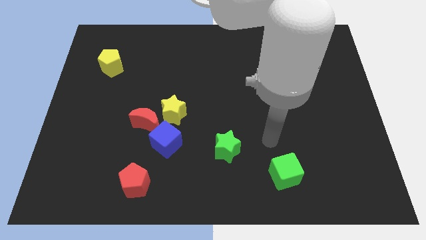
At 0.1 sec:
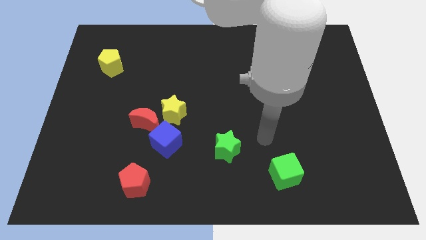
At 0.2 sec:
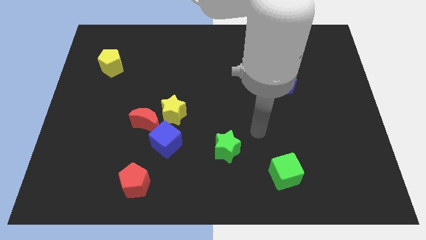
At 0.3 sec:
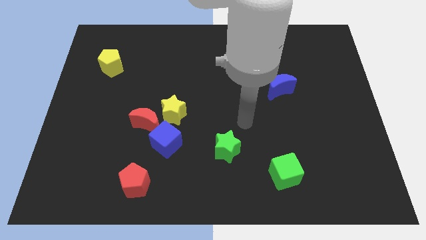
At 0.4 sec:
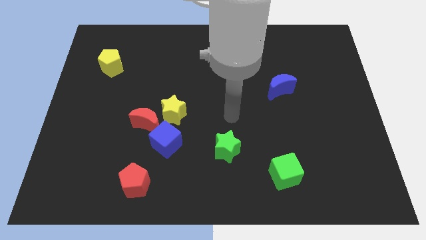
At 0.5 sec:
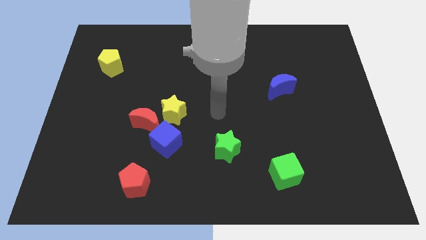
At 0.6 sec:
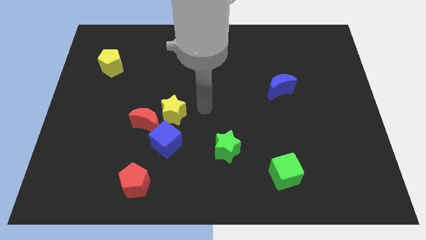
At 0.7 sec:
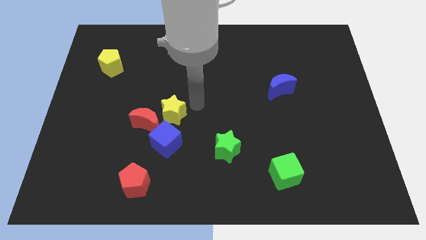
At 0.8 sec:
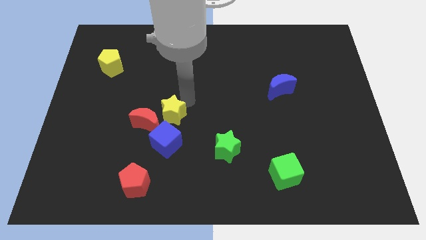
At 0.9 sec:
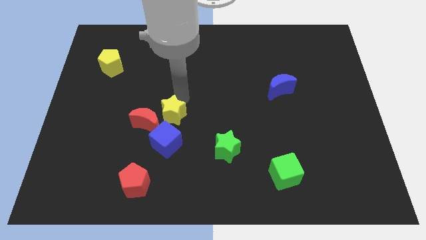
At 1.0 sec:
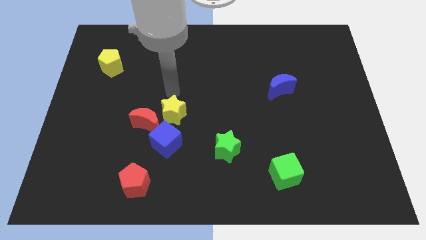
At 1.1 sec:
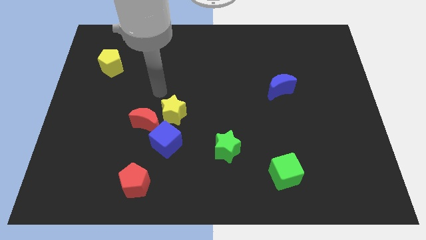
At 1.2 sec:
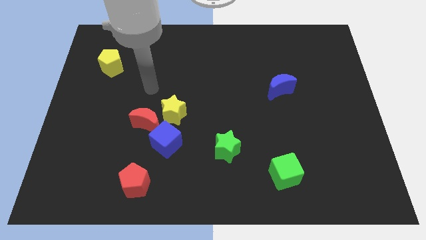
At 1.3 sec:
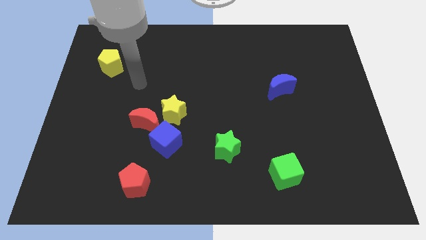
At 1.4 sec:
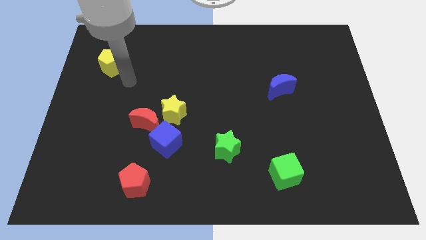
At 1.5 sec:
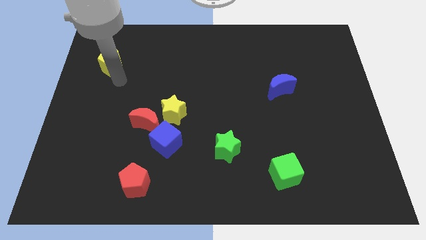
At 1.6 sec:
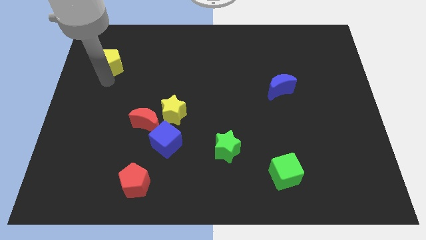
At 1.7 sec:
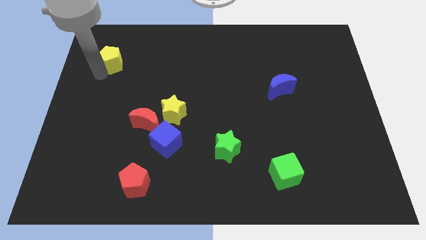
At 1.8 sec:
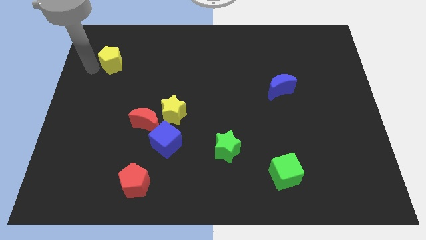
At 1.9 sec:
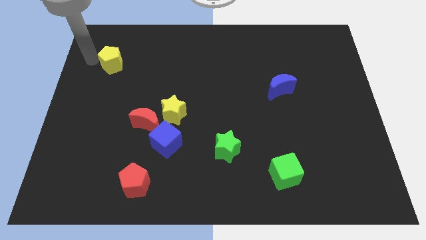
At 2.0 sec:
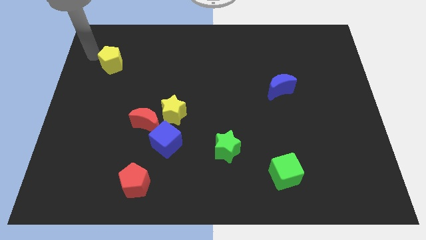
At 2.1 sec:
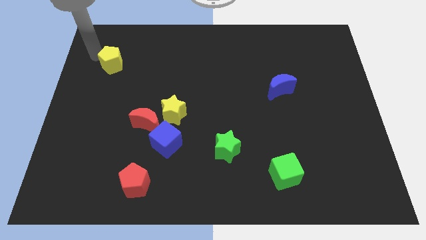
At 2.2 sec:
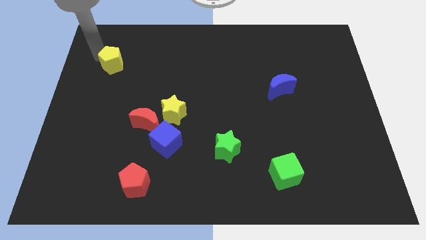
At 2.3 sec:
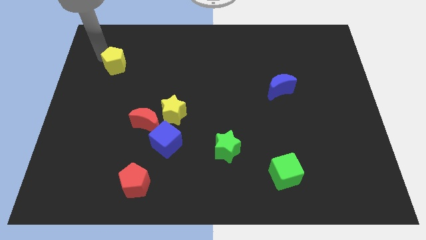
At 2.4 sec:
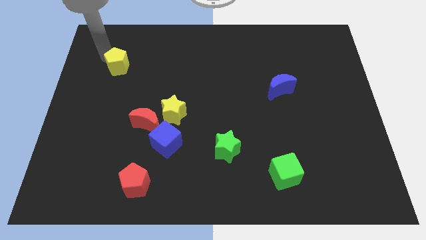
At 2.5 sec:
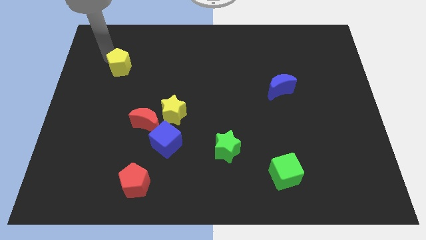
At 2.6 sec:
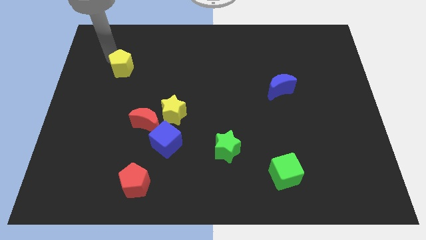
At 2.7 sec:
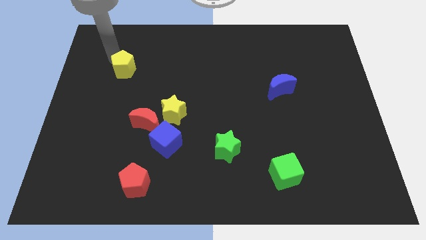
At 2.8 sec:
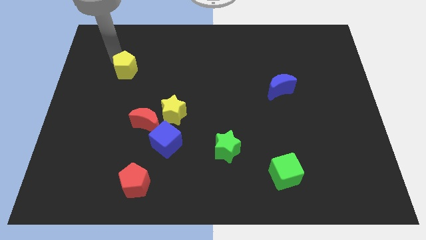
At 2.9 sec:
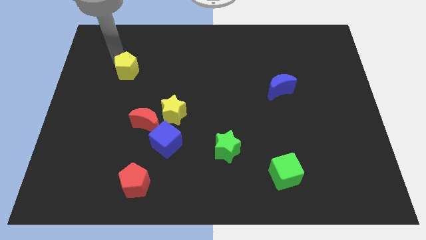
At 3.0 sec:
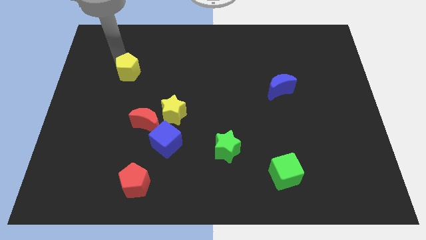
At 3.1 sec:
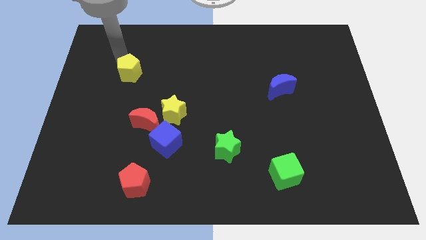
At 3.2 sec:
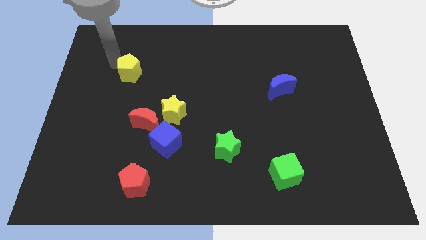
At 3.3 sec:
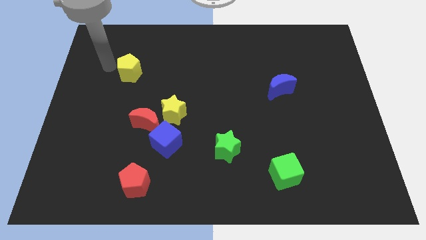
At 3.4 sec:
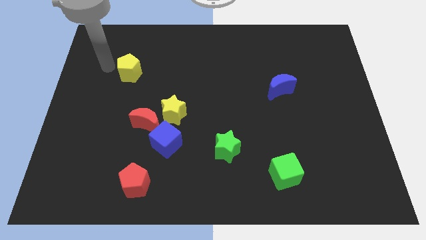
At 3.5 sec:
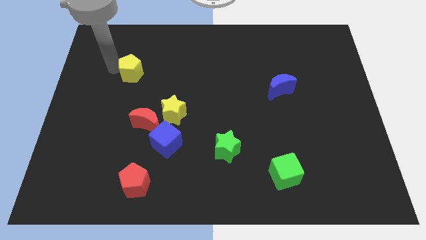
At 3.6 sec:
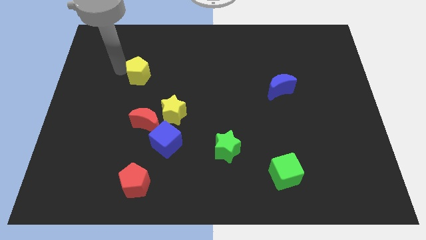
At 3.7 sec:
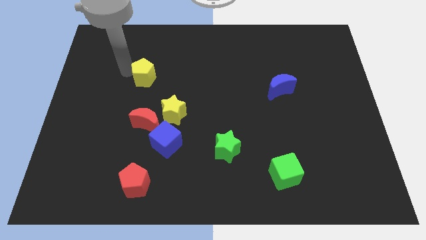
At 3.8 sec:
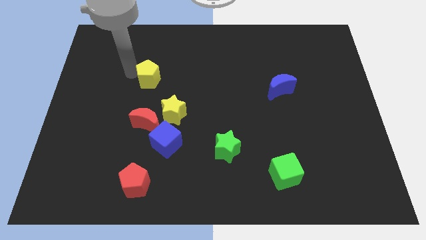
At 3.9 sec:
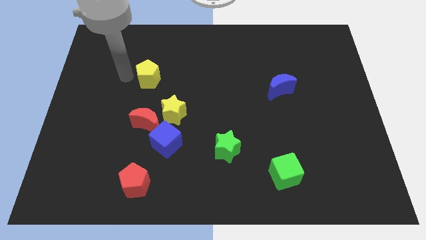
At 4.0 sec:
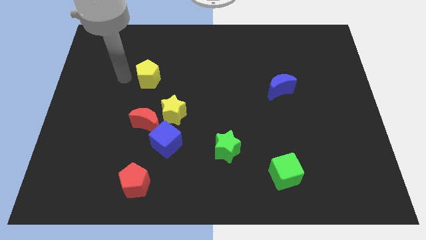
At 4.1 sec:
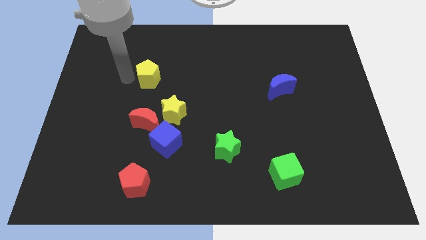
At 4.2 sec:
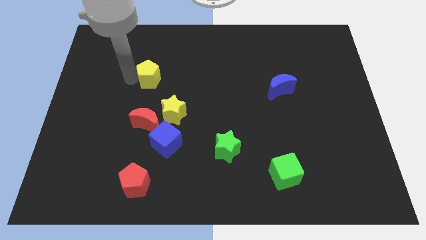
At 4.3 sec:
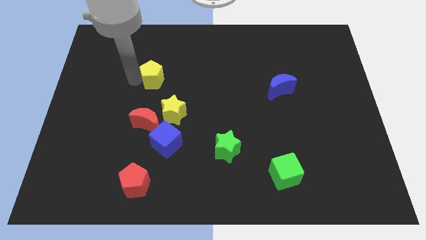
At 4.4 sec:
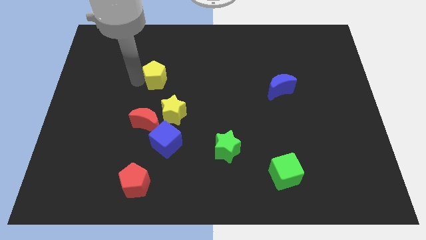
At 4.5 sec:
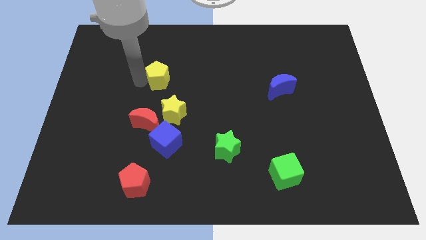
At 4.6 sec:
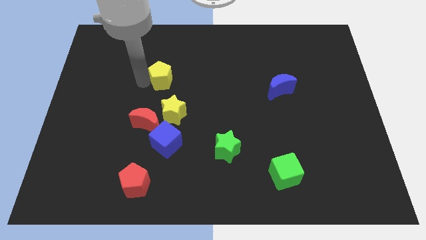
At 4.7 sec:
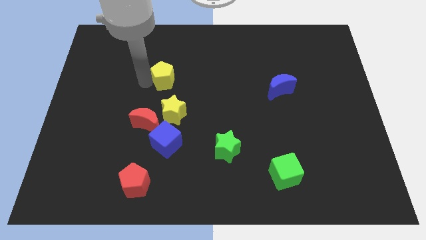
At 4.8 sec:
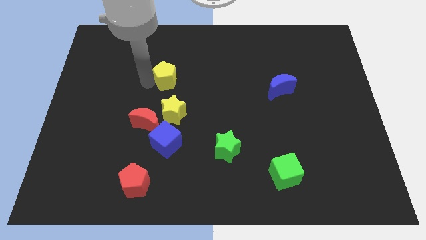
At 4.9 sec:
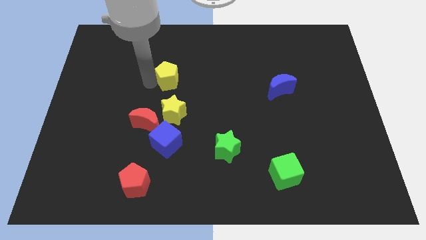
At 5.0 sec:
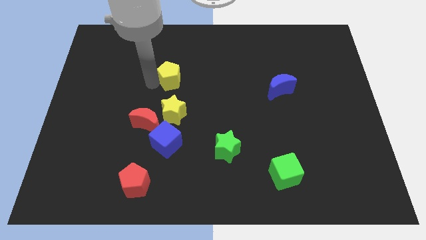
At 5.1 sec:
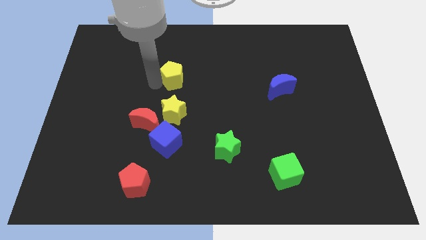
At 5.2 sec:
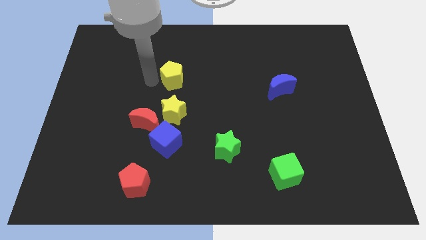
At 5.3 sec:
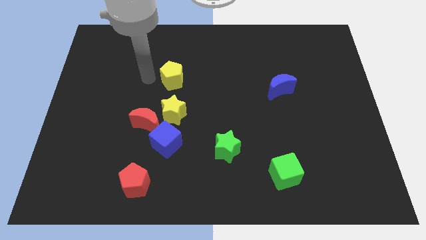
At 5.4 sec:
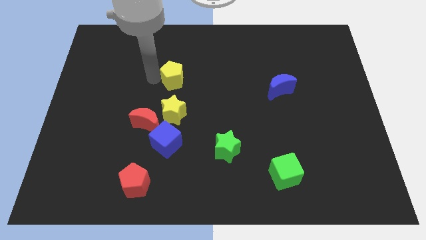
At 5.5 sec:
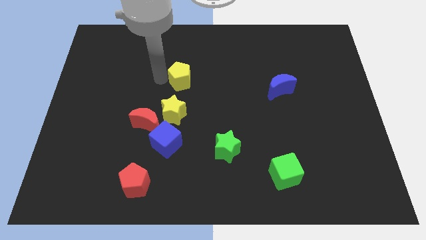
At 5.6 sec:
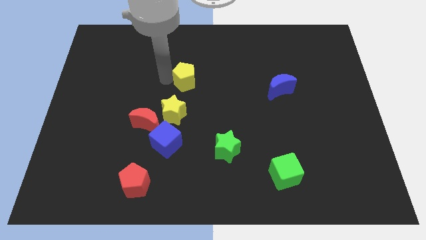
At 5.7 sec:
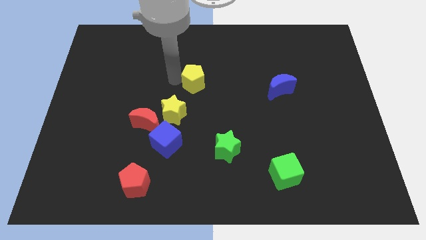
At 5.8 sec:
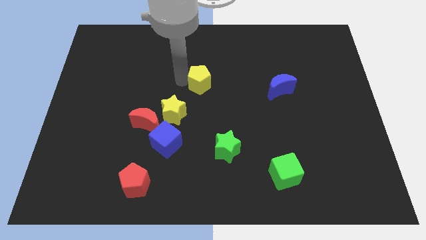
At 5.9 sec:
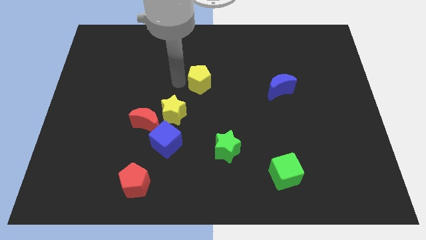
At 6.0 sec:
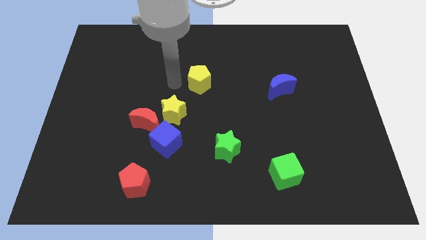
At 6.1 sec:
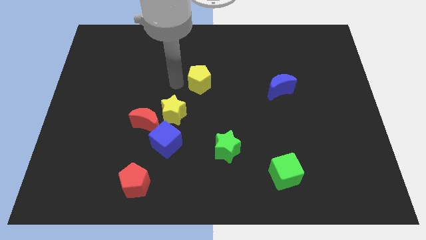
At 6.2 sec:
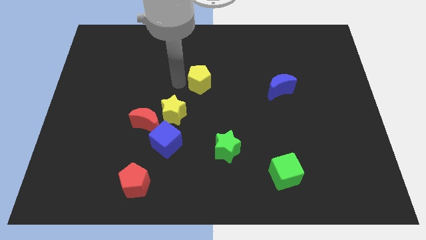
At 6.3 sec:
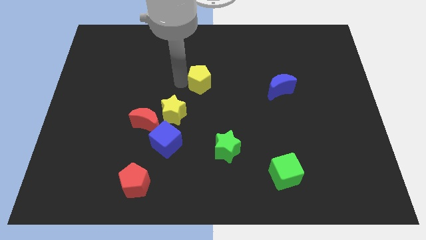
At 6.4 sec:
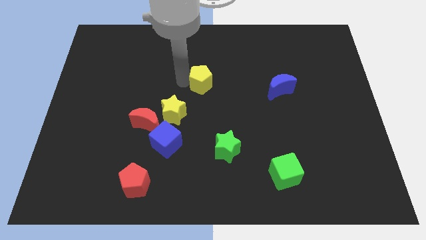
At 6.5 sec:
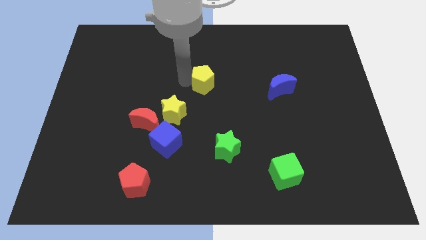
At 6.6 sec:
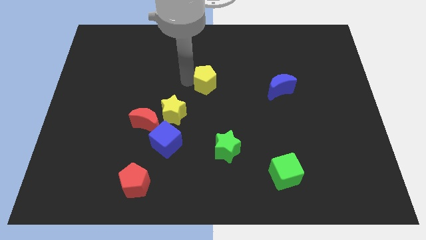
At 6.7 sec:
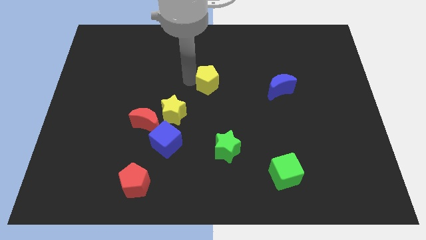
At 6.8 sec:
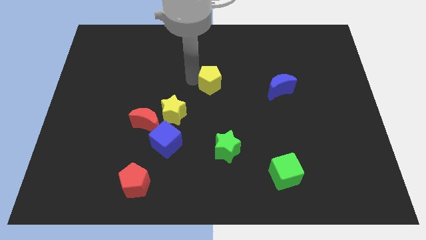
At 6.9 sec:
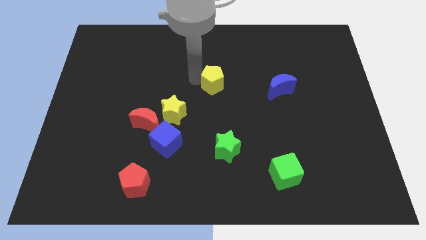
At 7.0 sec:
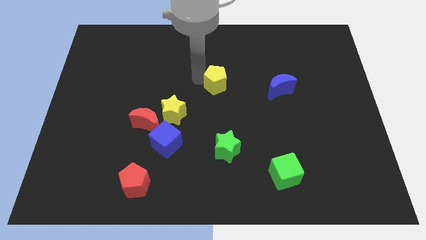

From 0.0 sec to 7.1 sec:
push the yellow pentagon to the left side of the blue moon

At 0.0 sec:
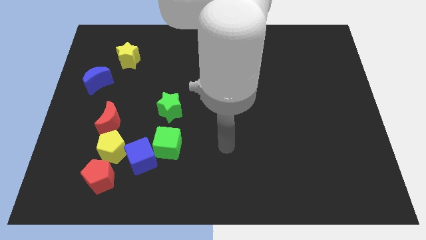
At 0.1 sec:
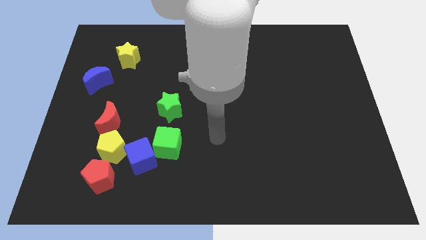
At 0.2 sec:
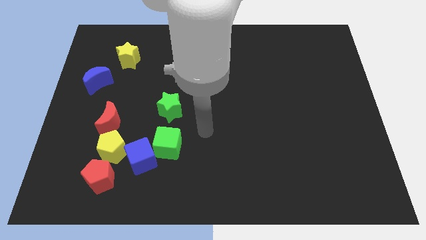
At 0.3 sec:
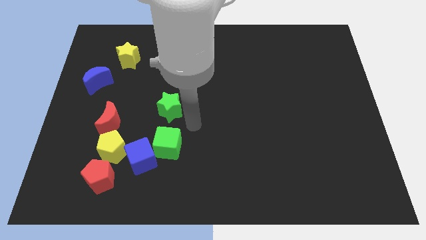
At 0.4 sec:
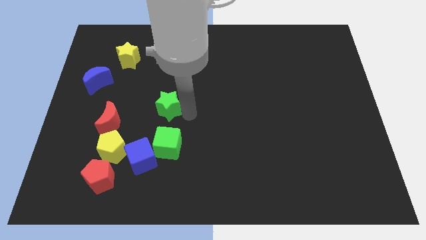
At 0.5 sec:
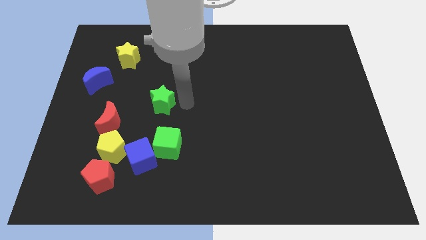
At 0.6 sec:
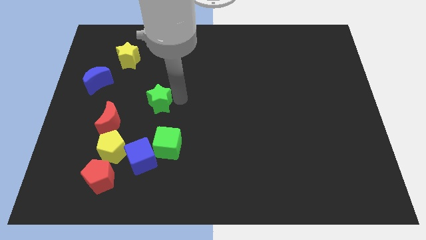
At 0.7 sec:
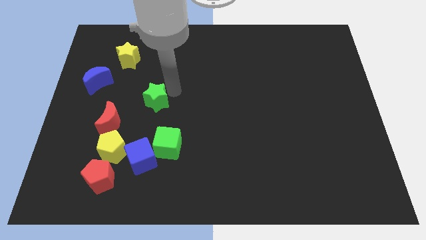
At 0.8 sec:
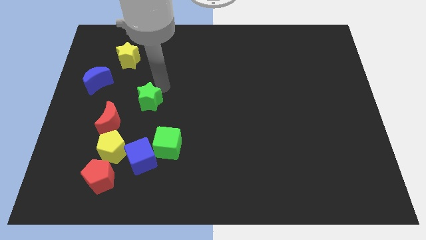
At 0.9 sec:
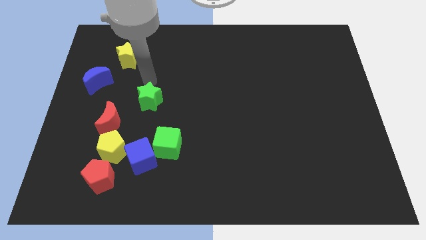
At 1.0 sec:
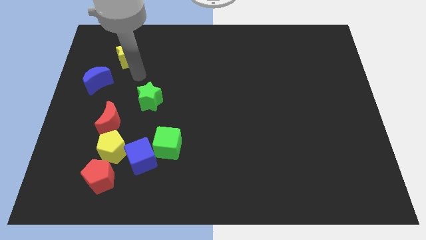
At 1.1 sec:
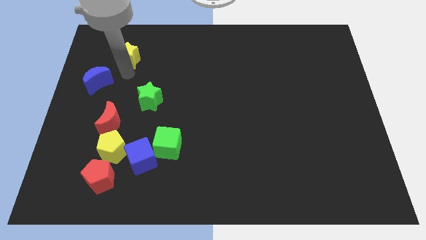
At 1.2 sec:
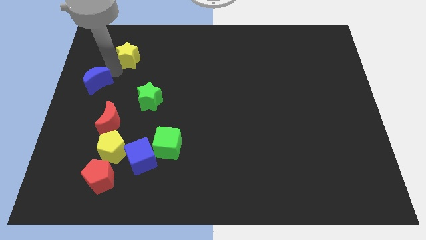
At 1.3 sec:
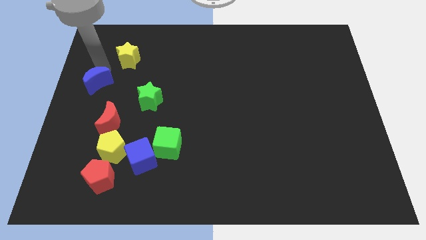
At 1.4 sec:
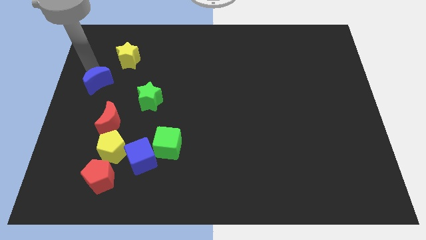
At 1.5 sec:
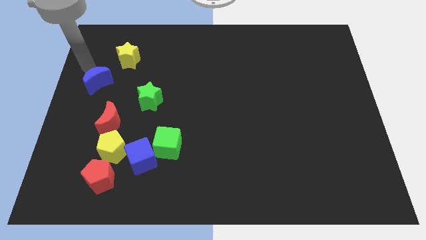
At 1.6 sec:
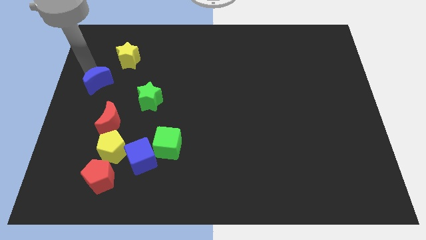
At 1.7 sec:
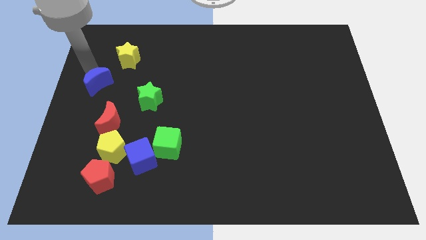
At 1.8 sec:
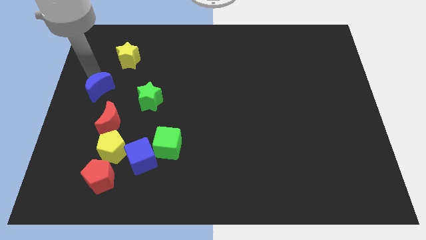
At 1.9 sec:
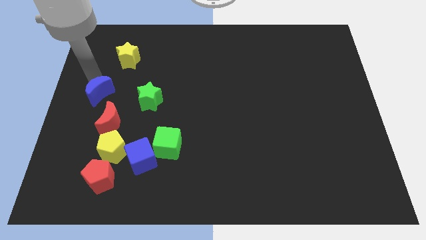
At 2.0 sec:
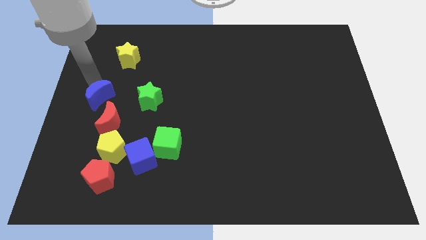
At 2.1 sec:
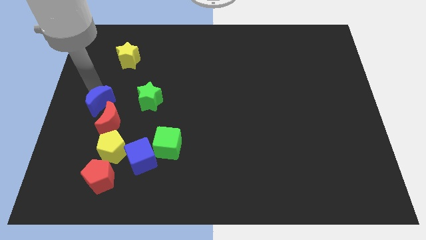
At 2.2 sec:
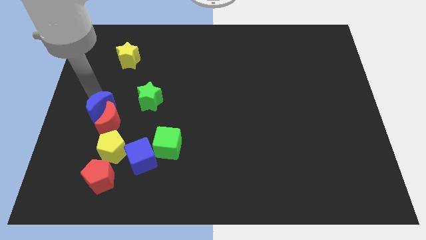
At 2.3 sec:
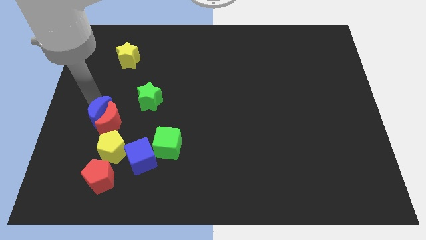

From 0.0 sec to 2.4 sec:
slide the blue moon to the top of the yellow pentagon
